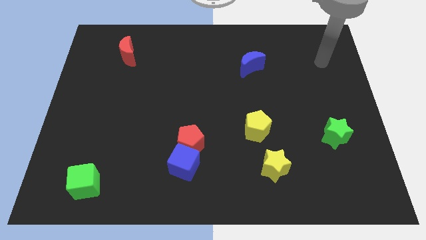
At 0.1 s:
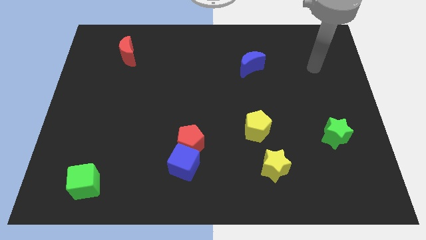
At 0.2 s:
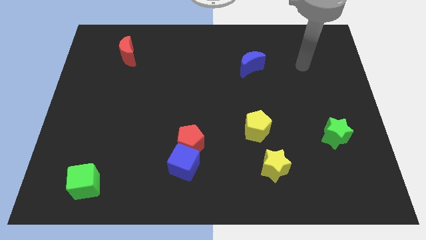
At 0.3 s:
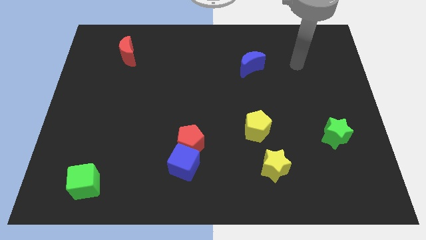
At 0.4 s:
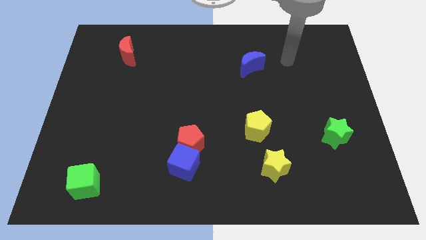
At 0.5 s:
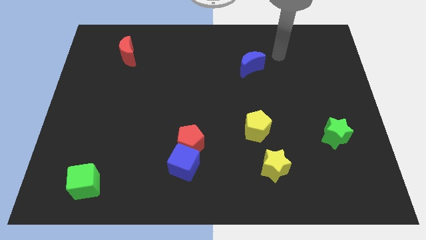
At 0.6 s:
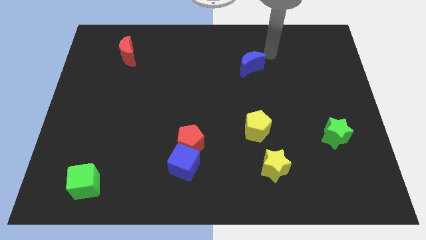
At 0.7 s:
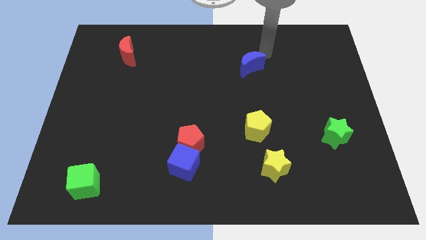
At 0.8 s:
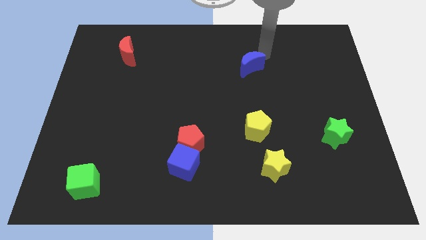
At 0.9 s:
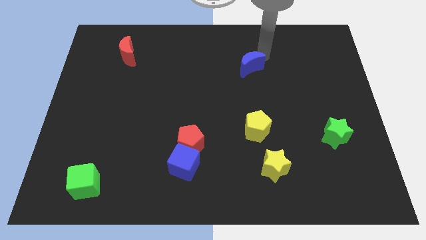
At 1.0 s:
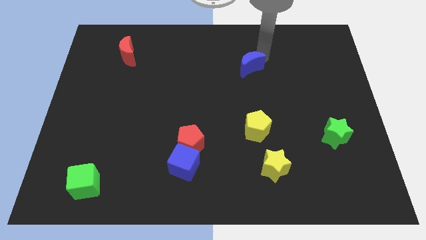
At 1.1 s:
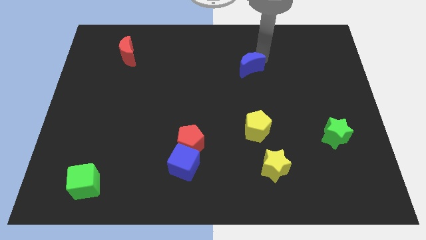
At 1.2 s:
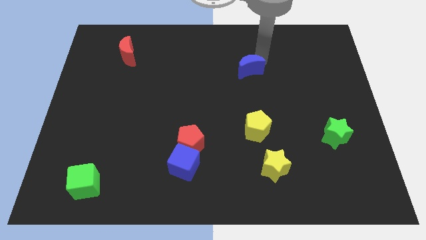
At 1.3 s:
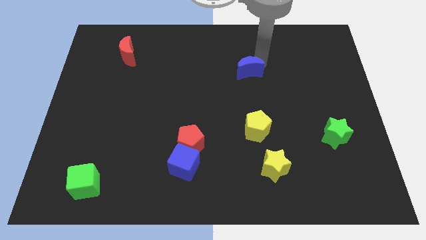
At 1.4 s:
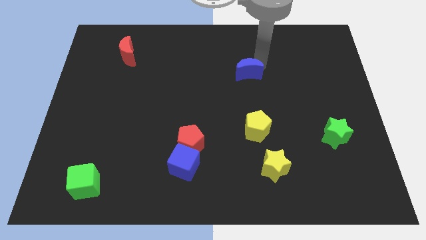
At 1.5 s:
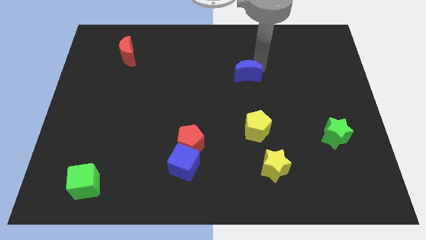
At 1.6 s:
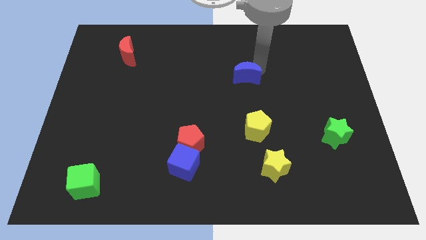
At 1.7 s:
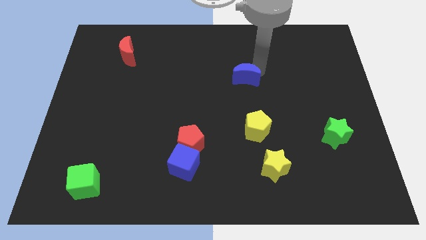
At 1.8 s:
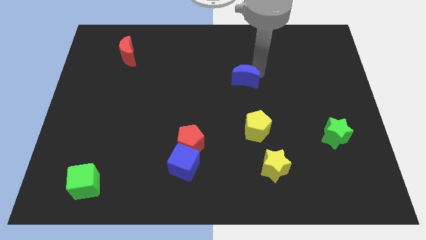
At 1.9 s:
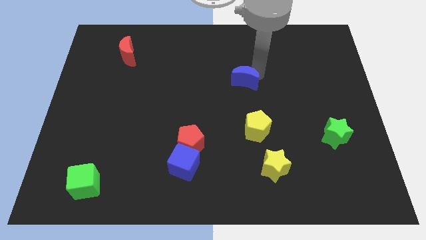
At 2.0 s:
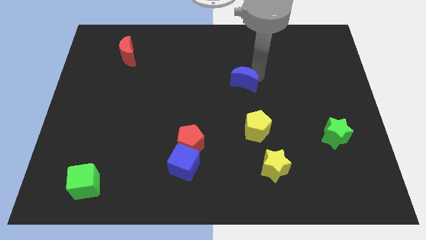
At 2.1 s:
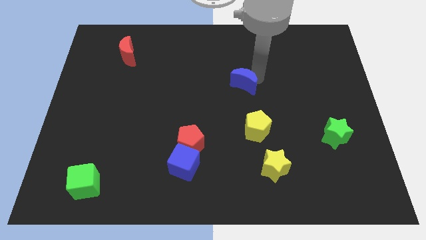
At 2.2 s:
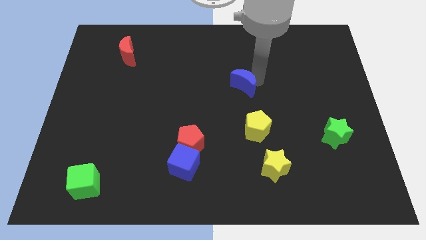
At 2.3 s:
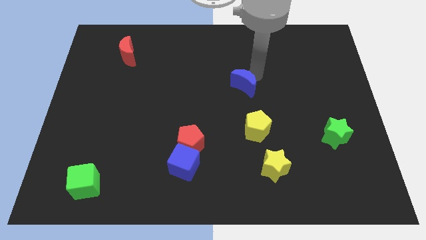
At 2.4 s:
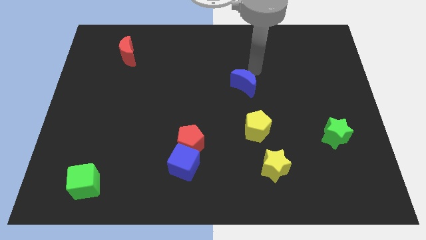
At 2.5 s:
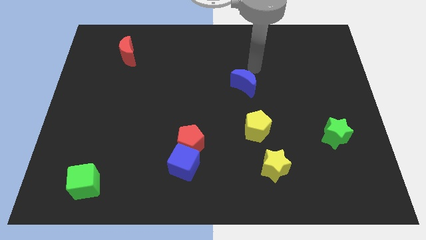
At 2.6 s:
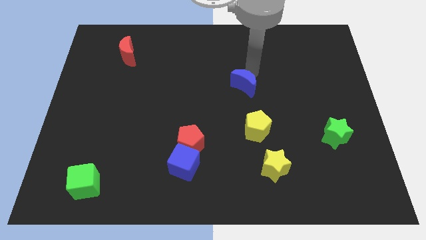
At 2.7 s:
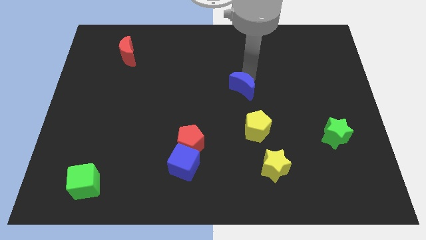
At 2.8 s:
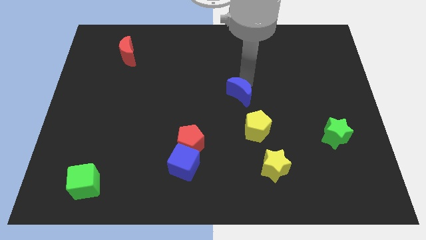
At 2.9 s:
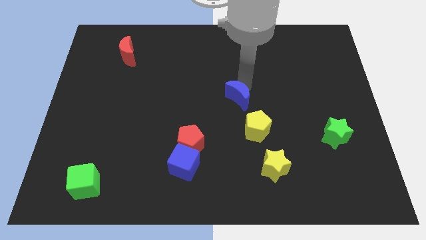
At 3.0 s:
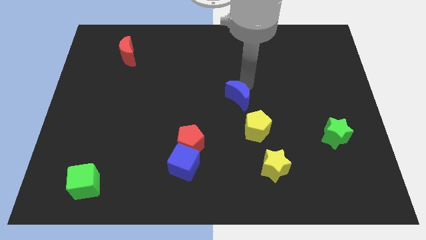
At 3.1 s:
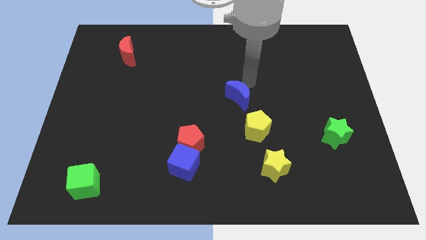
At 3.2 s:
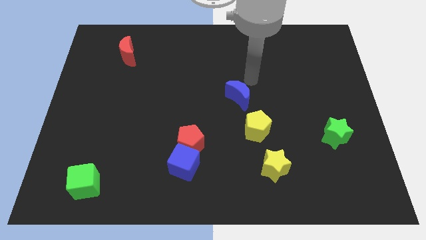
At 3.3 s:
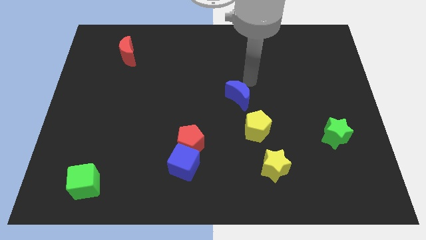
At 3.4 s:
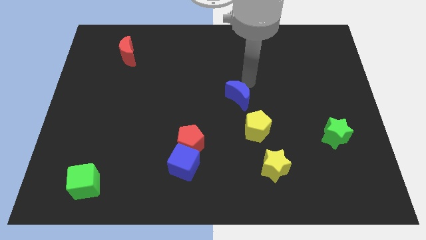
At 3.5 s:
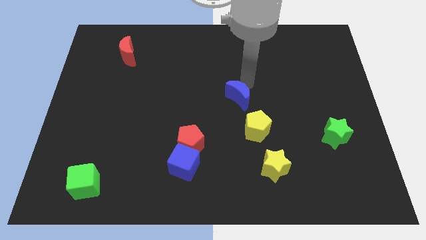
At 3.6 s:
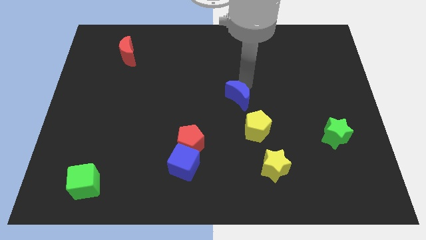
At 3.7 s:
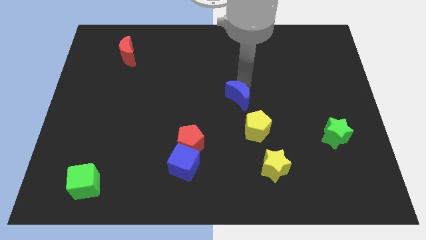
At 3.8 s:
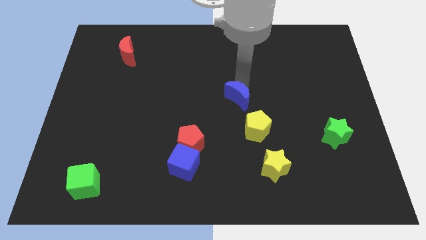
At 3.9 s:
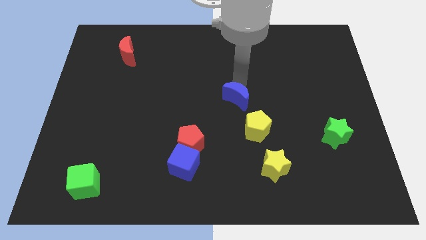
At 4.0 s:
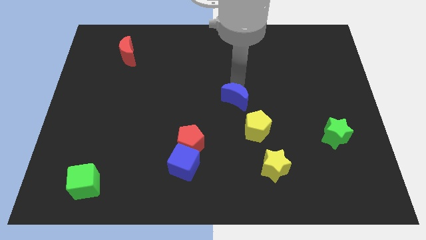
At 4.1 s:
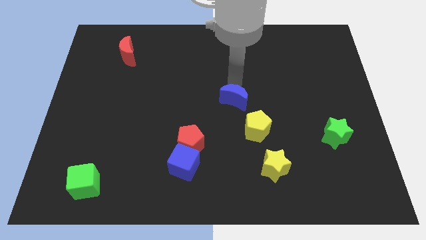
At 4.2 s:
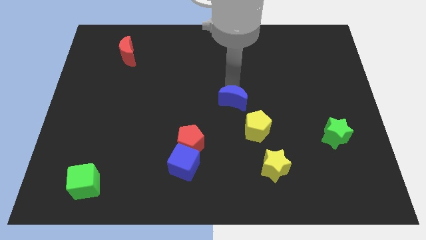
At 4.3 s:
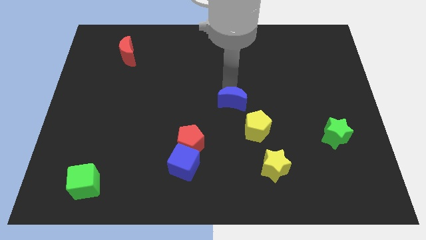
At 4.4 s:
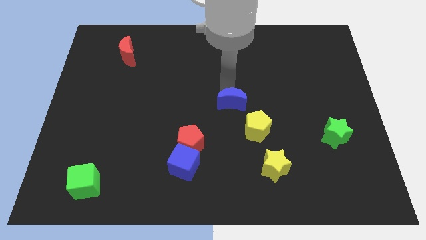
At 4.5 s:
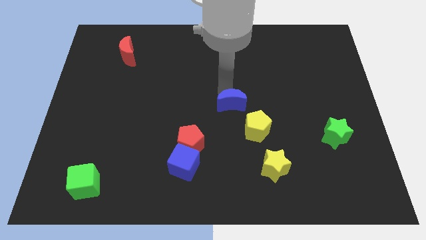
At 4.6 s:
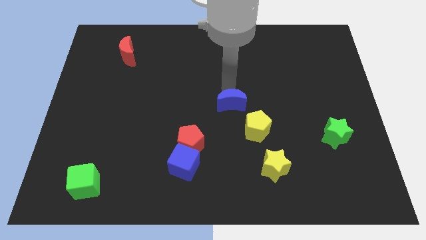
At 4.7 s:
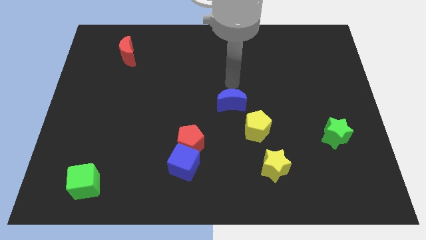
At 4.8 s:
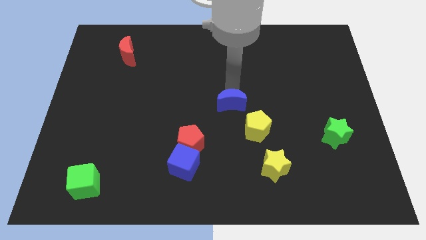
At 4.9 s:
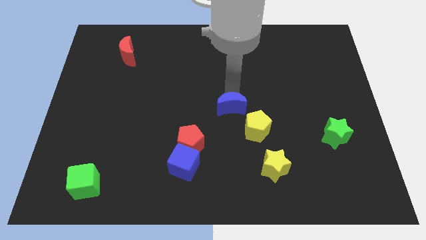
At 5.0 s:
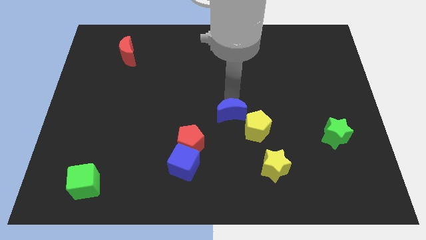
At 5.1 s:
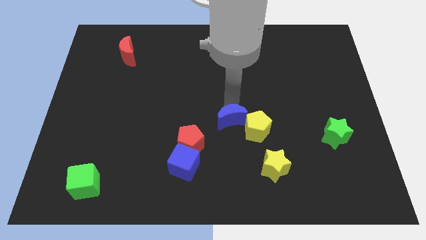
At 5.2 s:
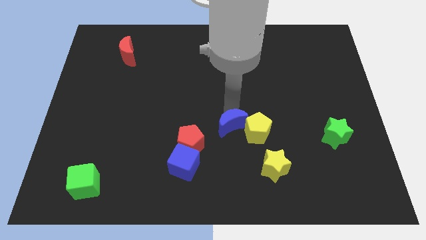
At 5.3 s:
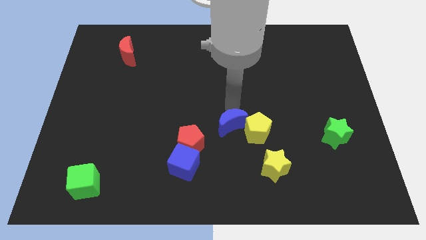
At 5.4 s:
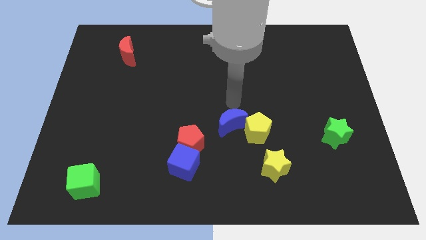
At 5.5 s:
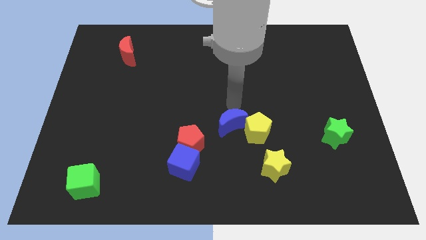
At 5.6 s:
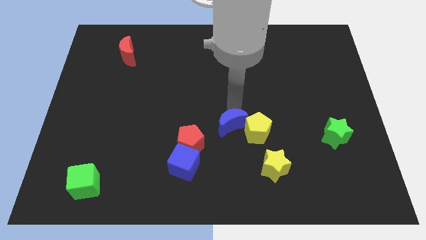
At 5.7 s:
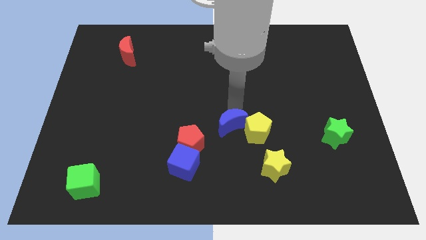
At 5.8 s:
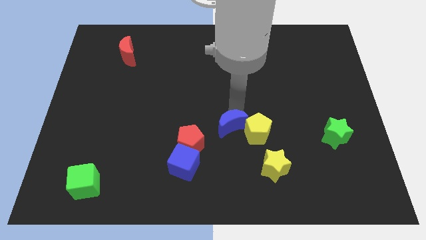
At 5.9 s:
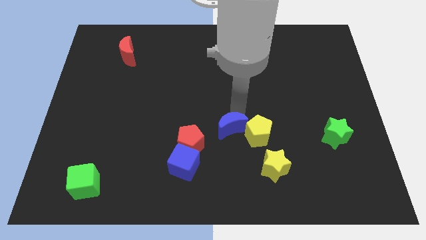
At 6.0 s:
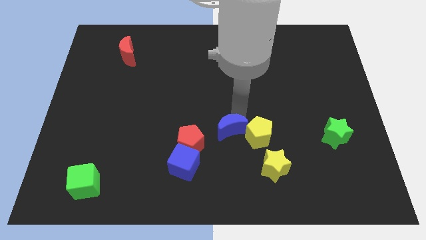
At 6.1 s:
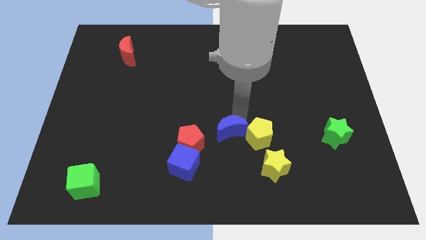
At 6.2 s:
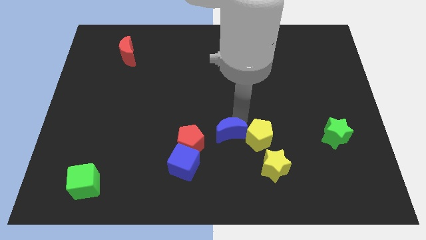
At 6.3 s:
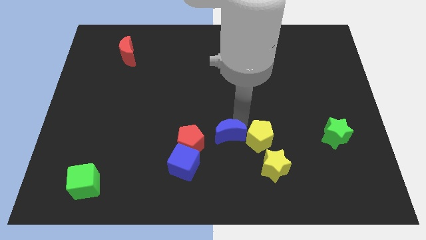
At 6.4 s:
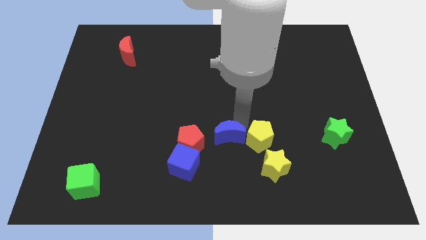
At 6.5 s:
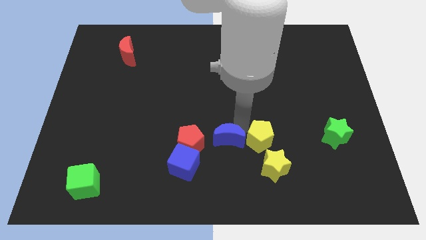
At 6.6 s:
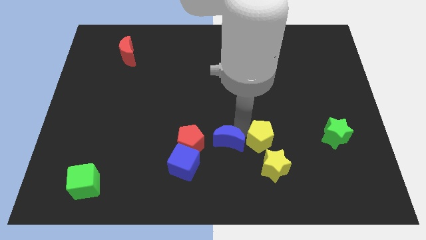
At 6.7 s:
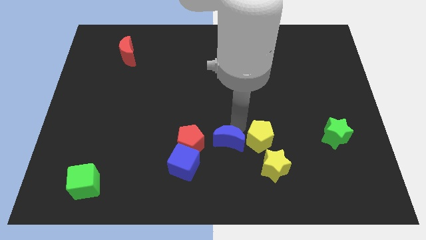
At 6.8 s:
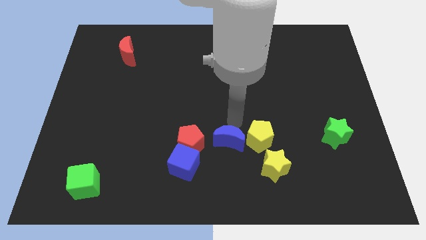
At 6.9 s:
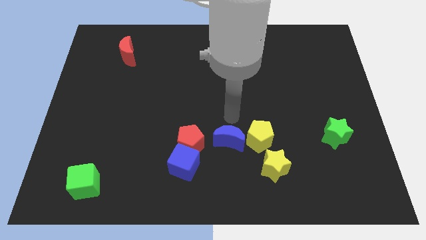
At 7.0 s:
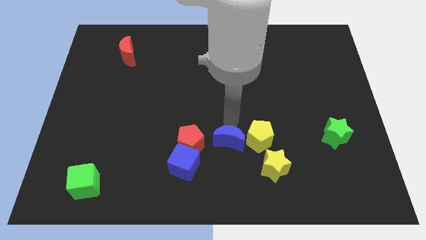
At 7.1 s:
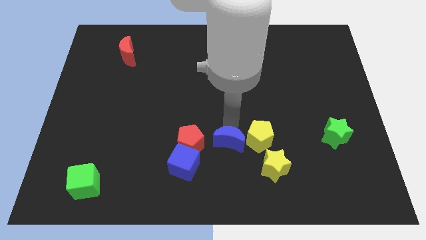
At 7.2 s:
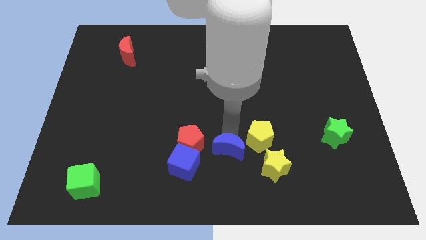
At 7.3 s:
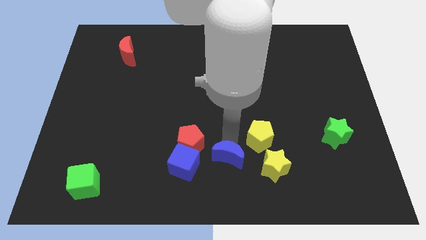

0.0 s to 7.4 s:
put the blue moon to the bottom side
